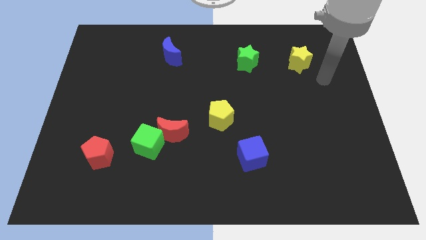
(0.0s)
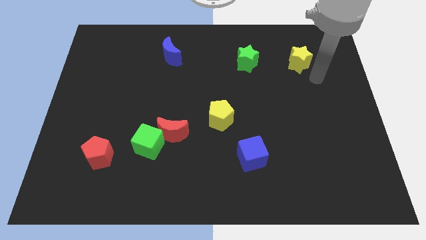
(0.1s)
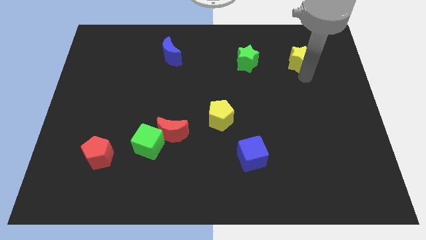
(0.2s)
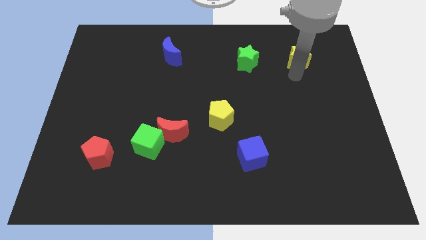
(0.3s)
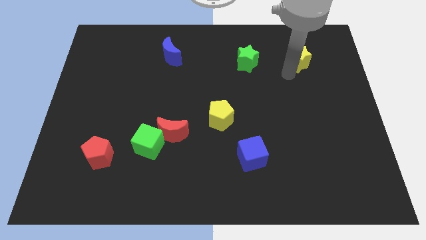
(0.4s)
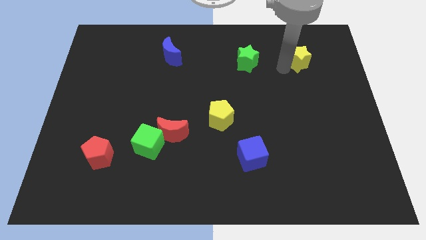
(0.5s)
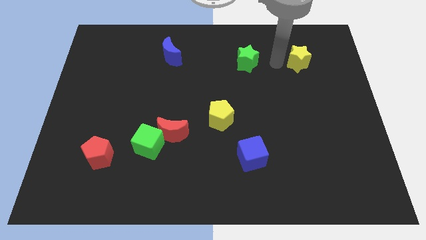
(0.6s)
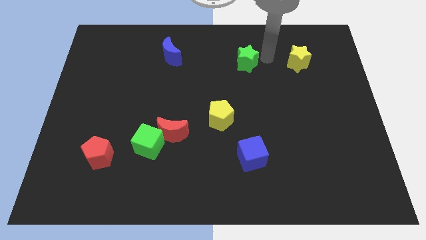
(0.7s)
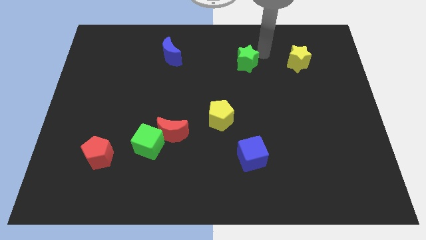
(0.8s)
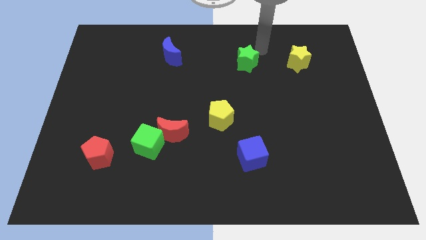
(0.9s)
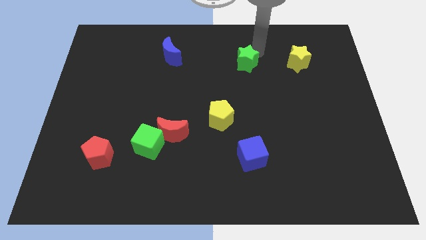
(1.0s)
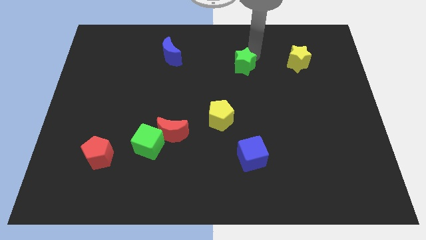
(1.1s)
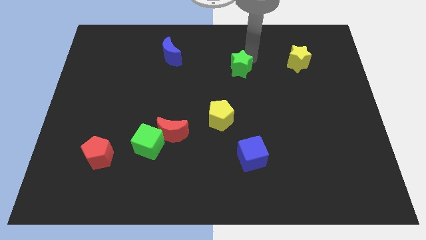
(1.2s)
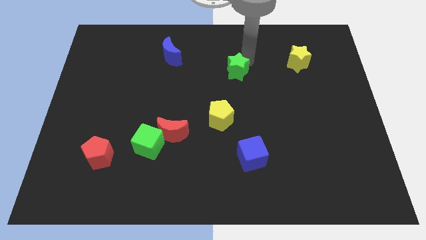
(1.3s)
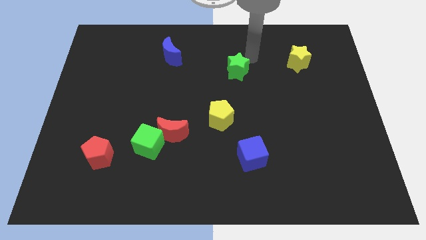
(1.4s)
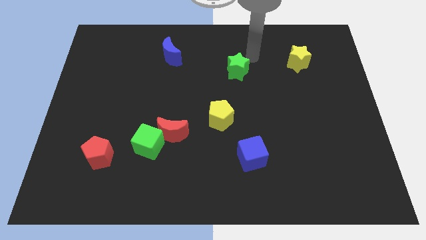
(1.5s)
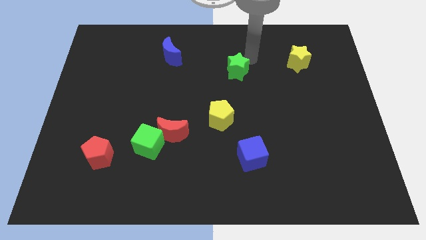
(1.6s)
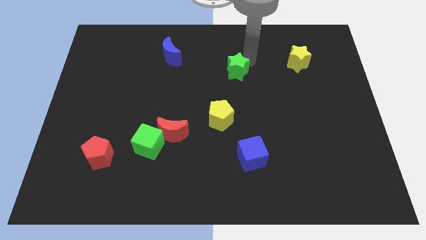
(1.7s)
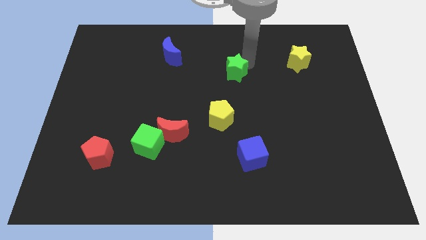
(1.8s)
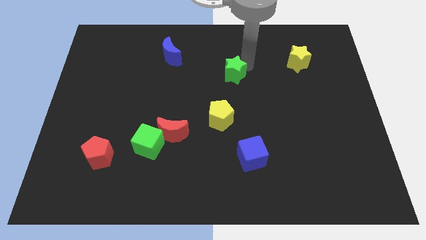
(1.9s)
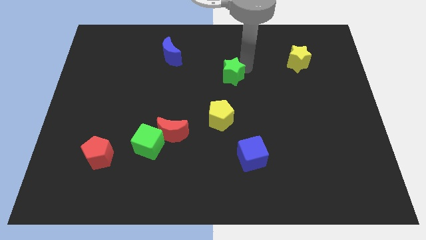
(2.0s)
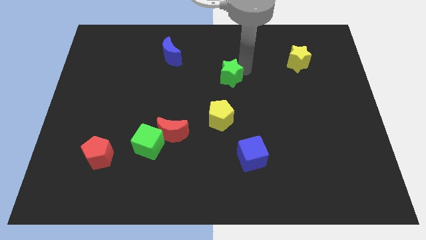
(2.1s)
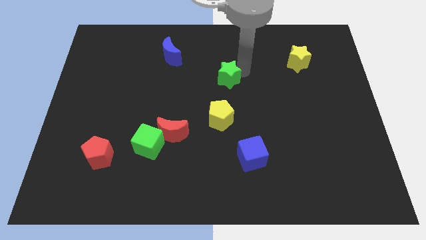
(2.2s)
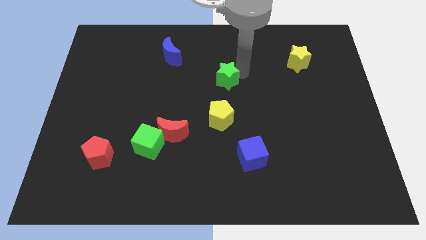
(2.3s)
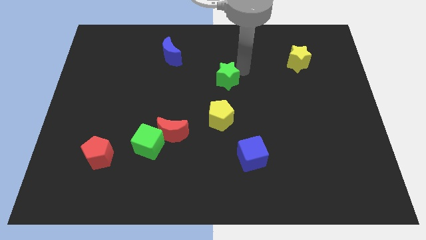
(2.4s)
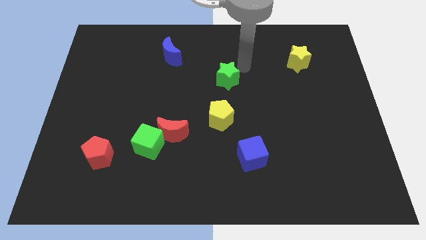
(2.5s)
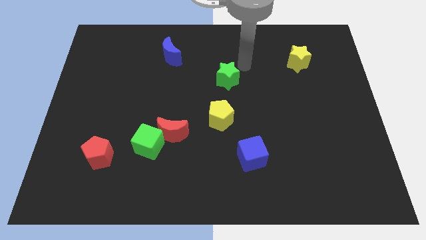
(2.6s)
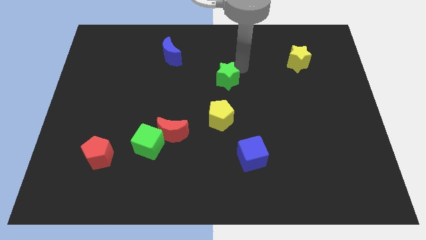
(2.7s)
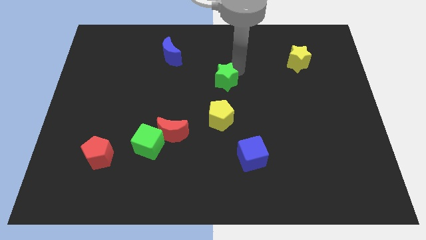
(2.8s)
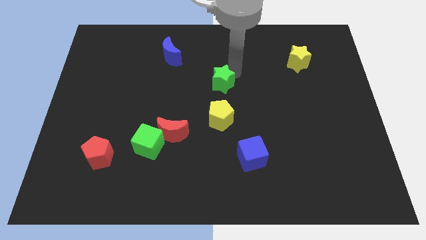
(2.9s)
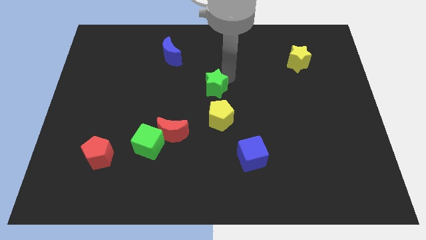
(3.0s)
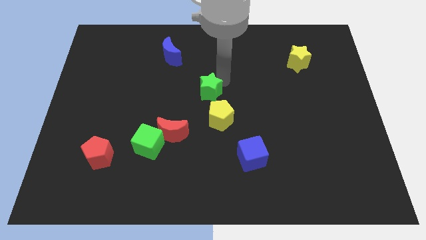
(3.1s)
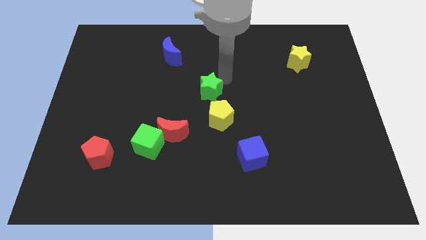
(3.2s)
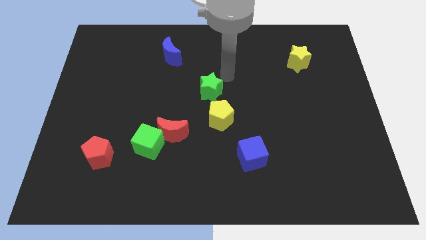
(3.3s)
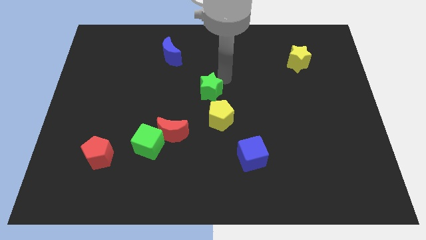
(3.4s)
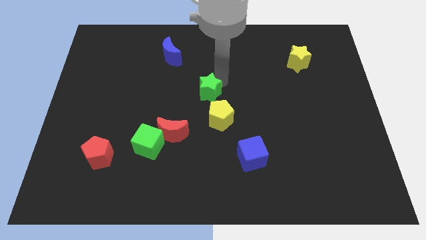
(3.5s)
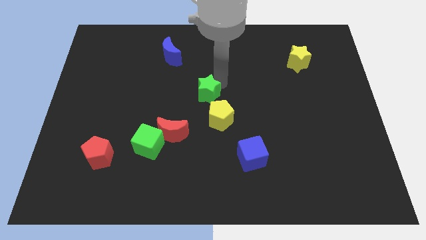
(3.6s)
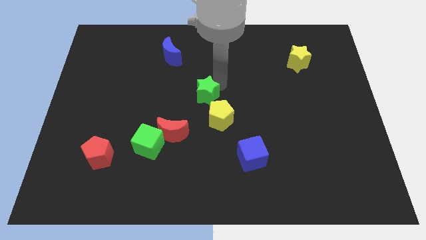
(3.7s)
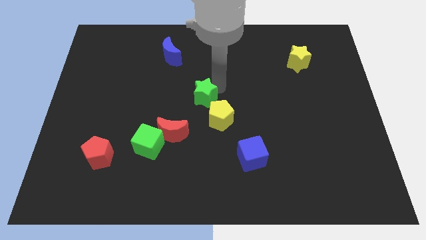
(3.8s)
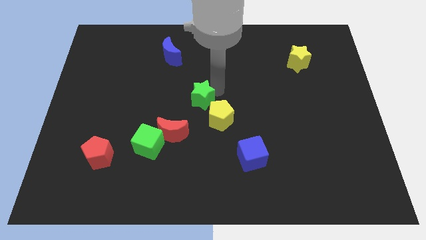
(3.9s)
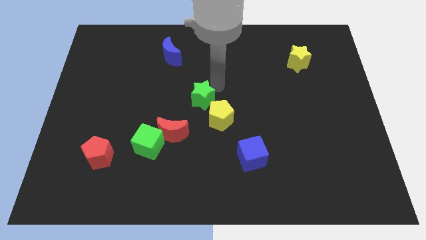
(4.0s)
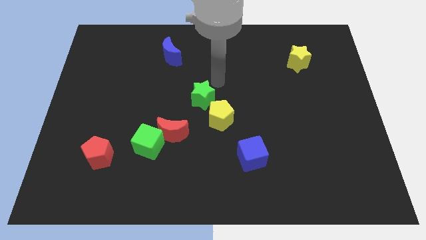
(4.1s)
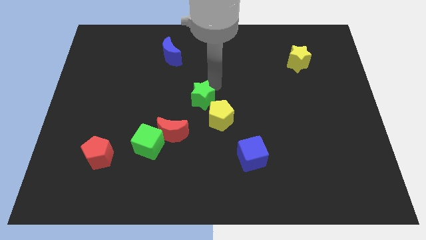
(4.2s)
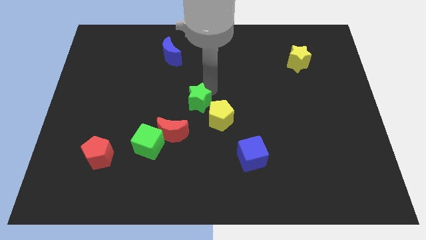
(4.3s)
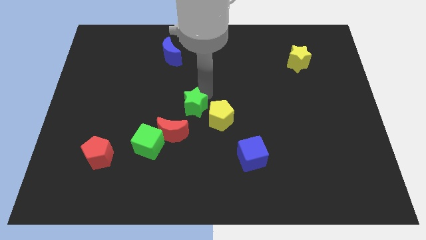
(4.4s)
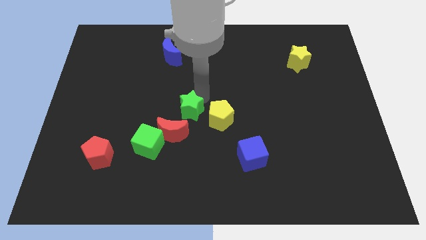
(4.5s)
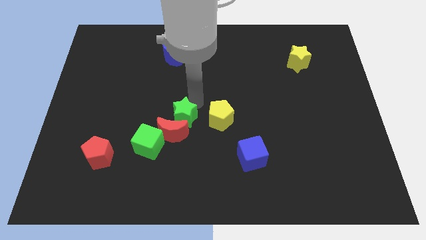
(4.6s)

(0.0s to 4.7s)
slide the green star towards the red moon

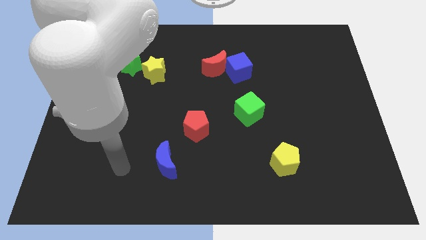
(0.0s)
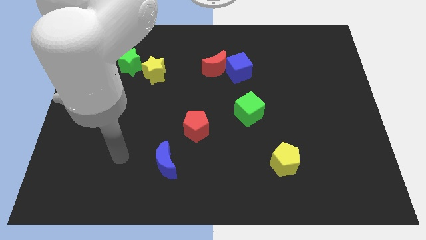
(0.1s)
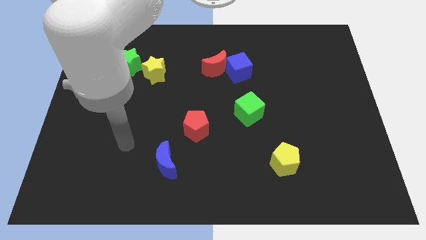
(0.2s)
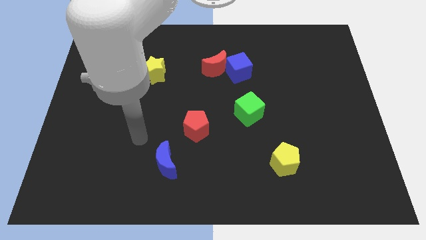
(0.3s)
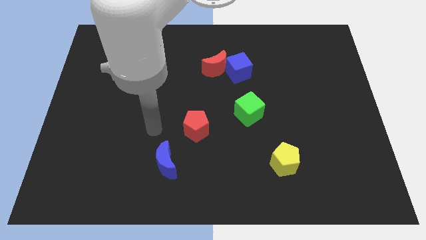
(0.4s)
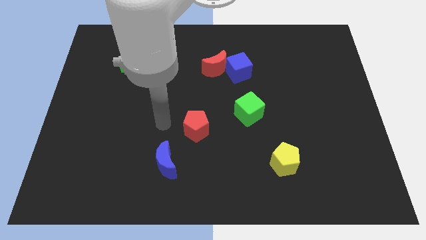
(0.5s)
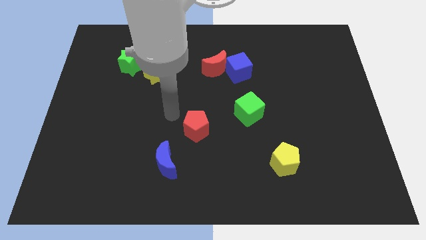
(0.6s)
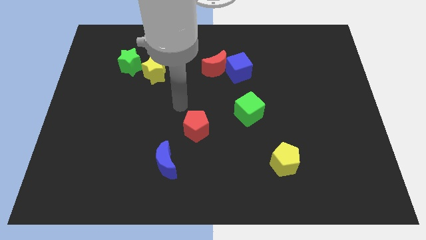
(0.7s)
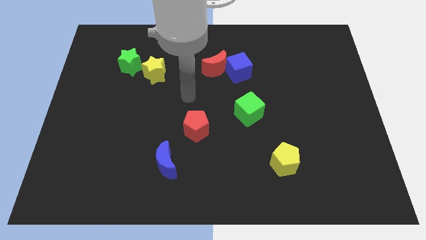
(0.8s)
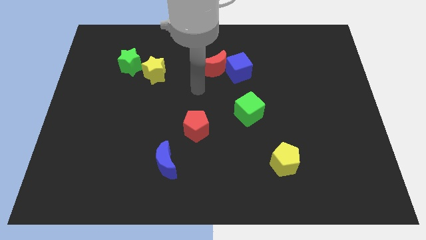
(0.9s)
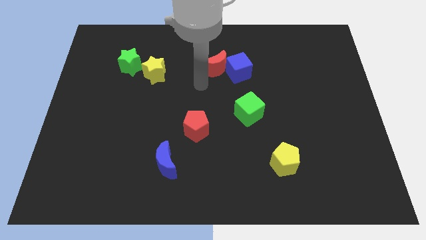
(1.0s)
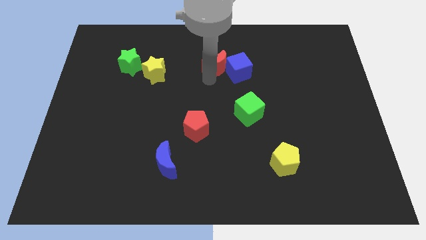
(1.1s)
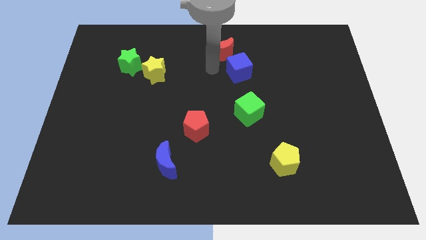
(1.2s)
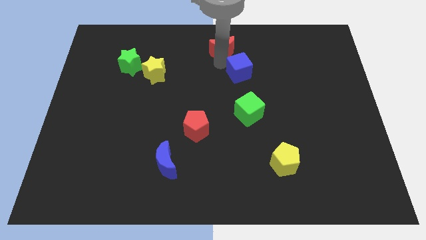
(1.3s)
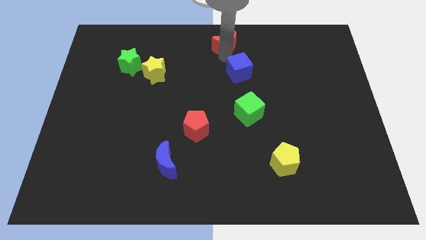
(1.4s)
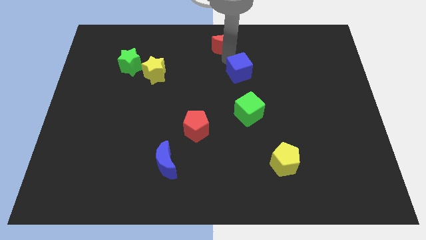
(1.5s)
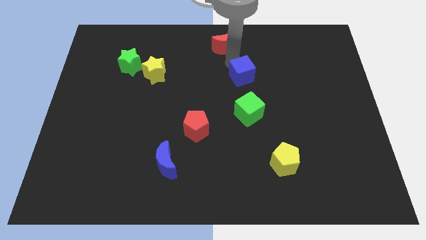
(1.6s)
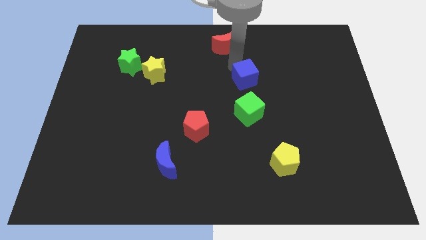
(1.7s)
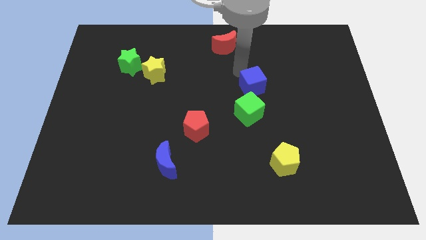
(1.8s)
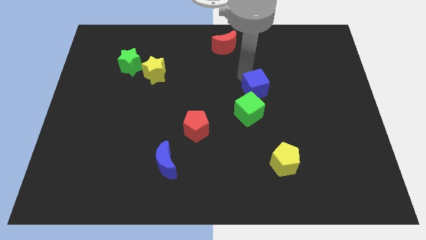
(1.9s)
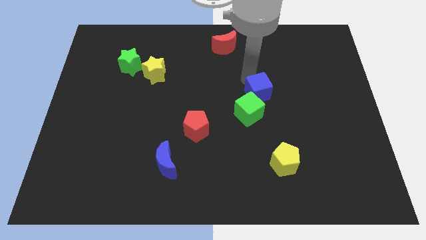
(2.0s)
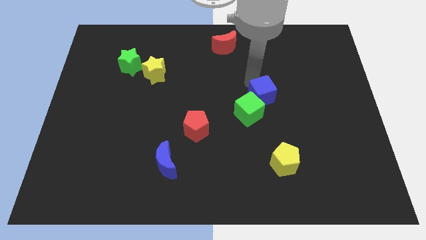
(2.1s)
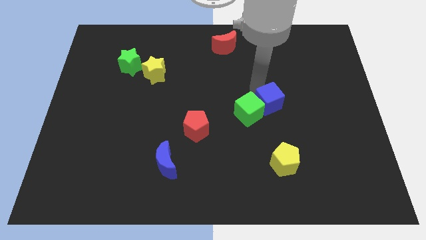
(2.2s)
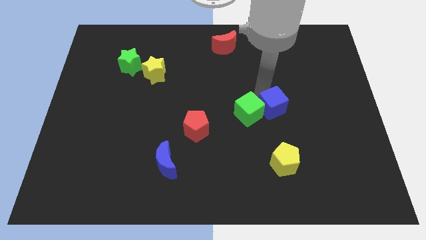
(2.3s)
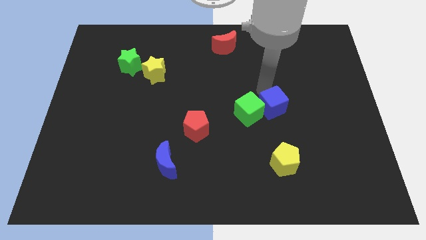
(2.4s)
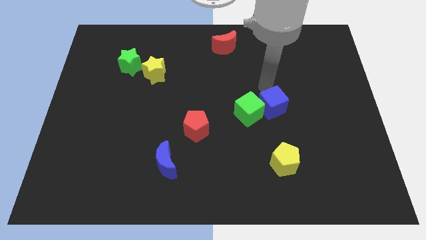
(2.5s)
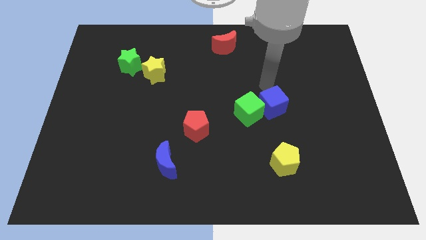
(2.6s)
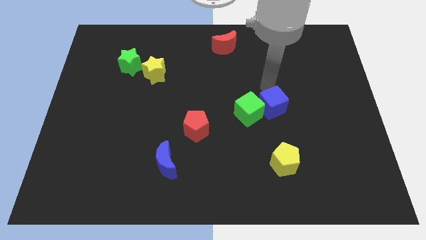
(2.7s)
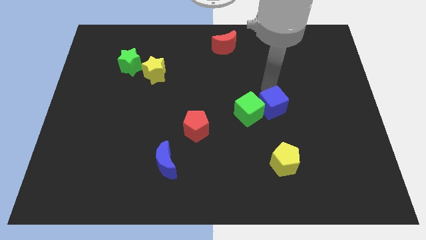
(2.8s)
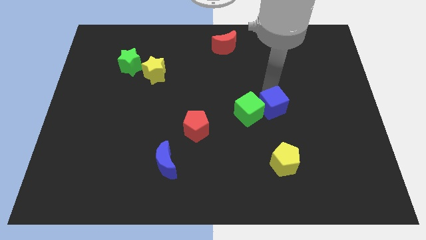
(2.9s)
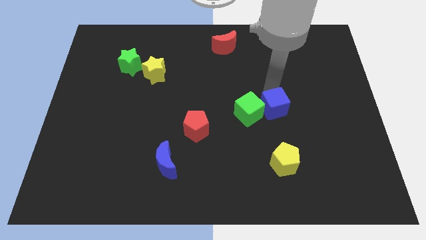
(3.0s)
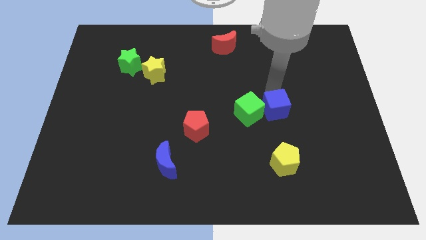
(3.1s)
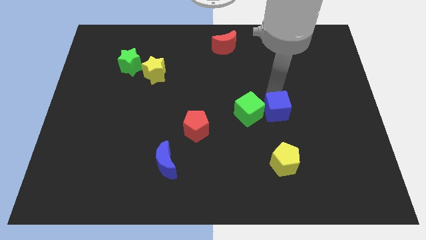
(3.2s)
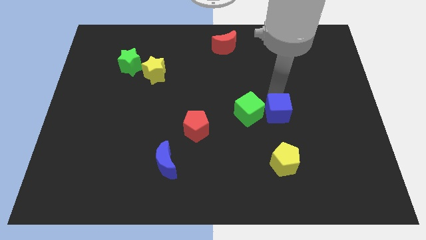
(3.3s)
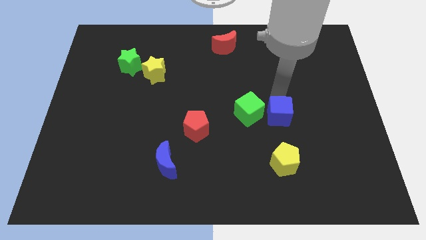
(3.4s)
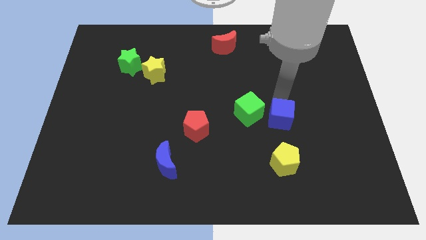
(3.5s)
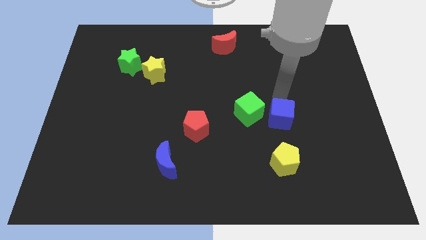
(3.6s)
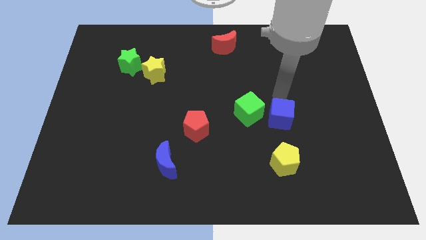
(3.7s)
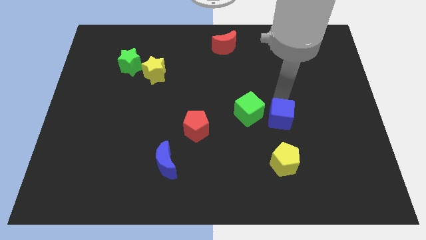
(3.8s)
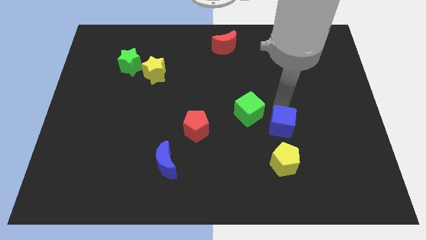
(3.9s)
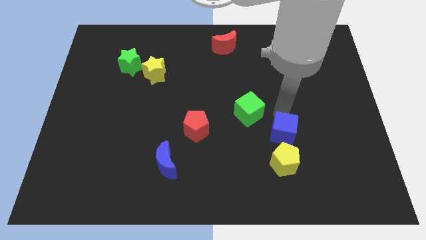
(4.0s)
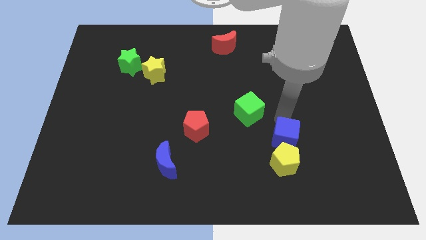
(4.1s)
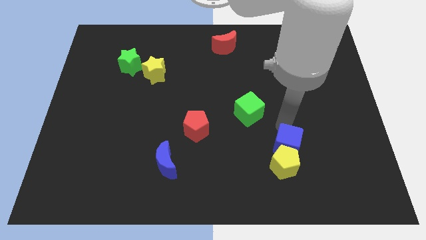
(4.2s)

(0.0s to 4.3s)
put the blue cube close to the yellow pentagon
